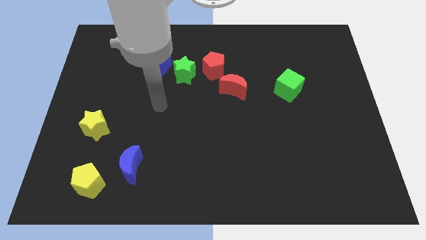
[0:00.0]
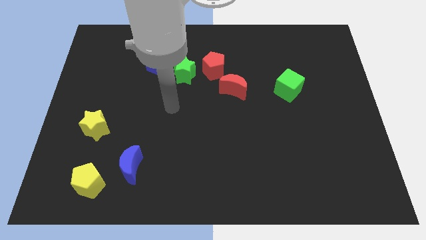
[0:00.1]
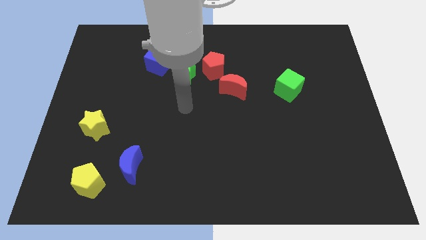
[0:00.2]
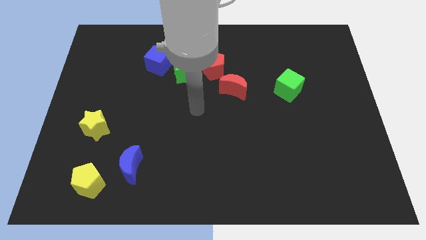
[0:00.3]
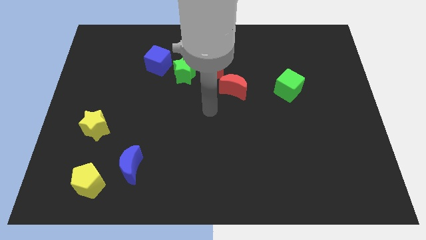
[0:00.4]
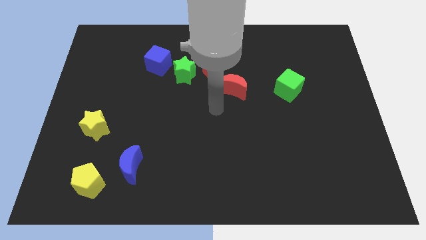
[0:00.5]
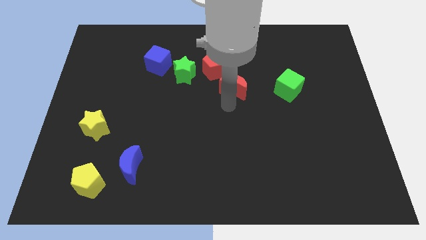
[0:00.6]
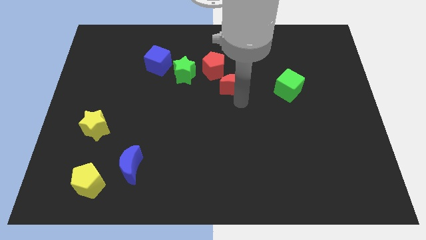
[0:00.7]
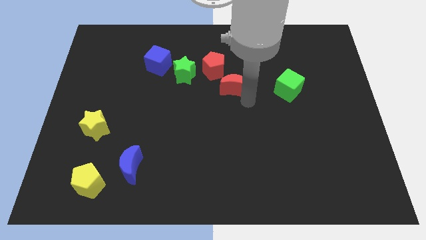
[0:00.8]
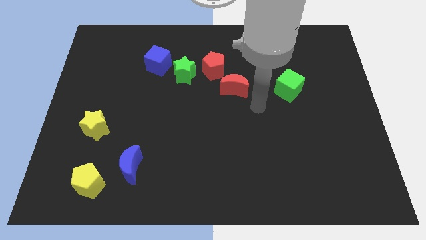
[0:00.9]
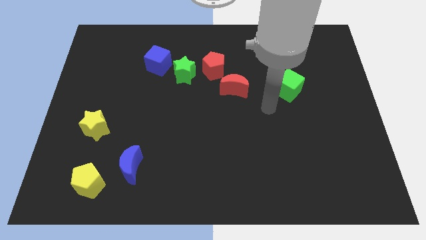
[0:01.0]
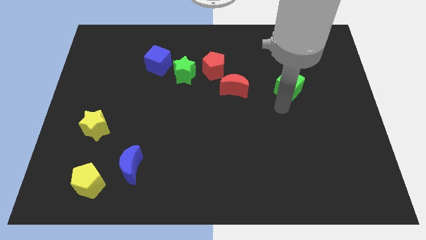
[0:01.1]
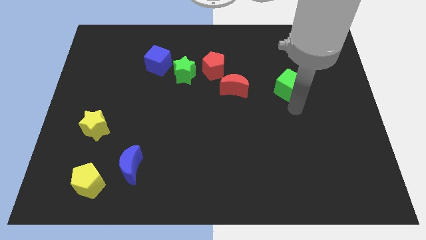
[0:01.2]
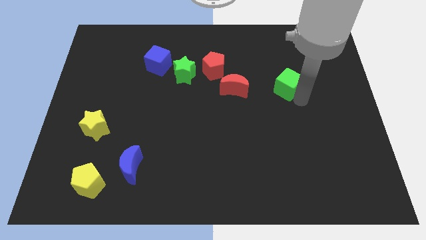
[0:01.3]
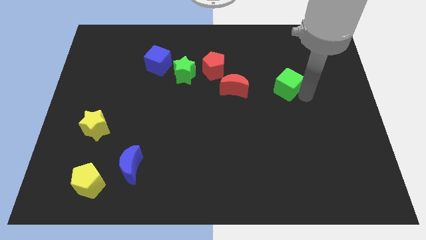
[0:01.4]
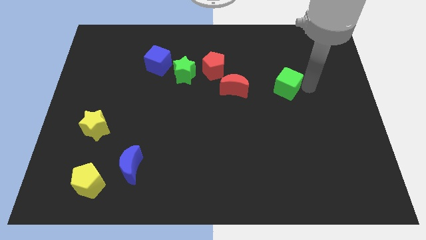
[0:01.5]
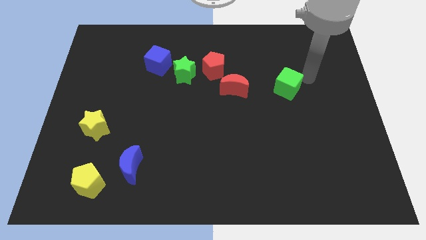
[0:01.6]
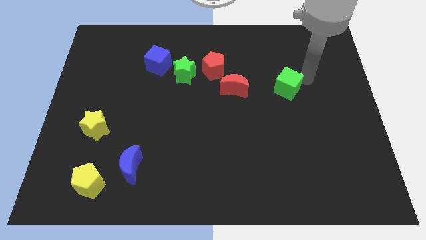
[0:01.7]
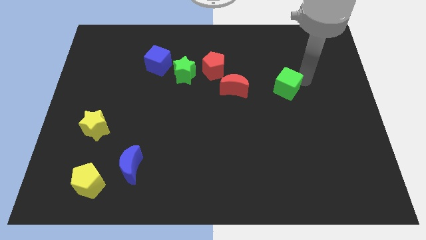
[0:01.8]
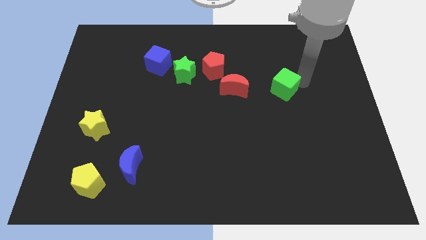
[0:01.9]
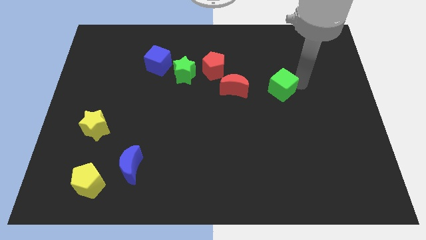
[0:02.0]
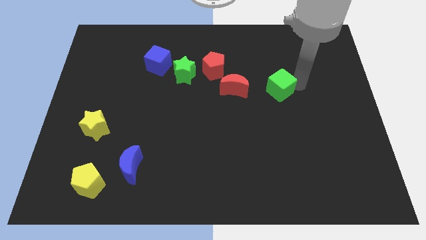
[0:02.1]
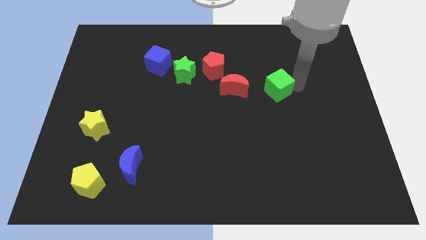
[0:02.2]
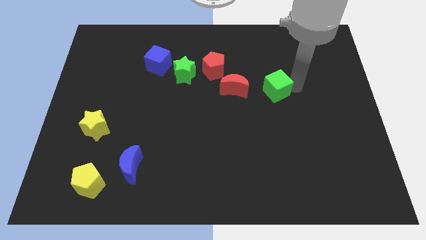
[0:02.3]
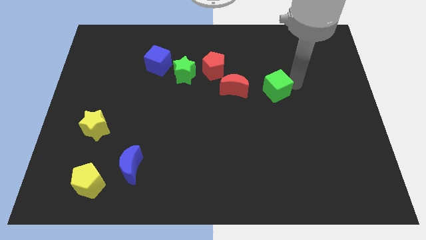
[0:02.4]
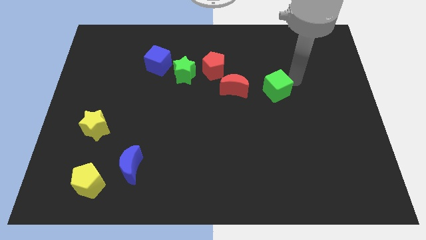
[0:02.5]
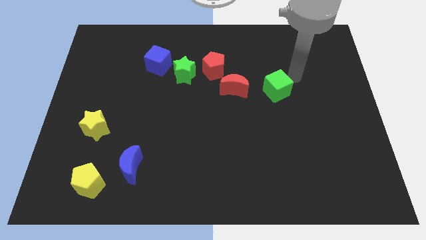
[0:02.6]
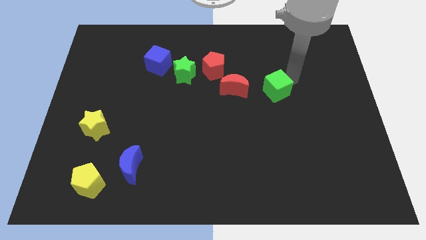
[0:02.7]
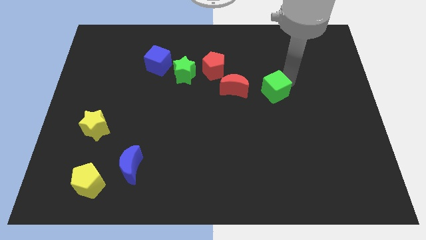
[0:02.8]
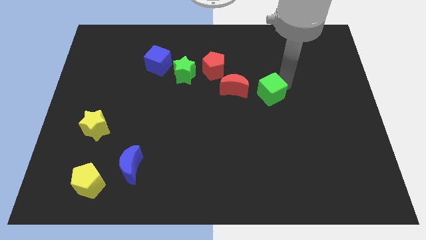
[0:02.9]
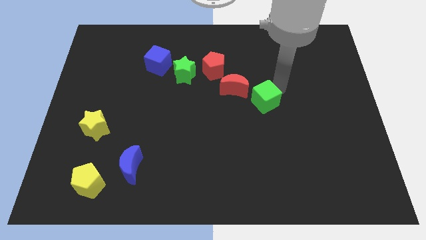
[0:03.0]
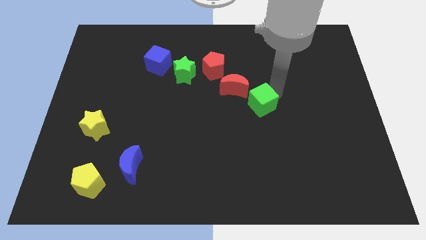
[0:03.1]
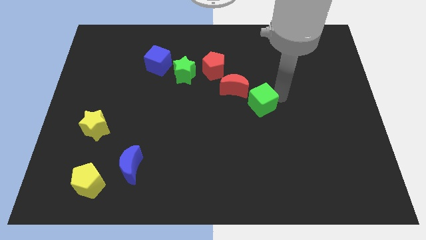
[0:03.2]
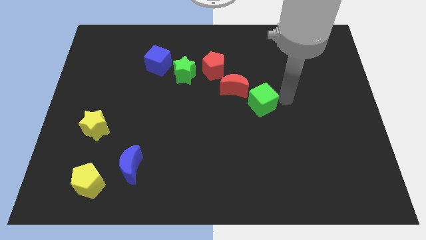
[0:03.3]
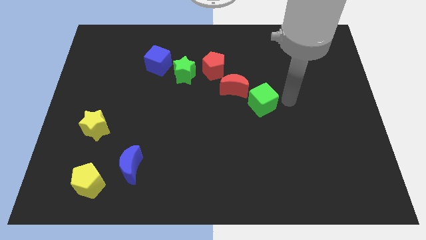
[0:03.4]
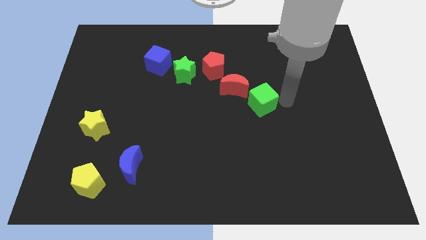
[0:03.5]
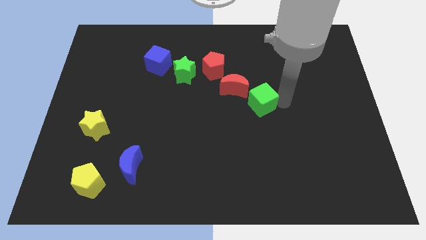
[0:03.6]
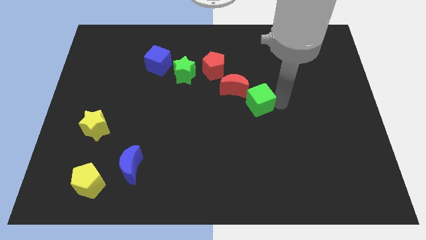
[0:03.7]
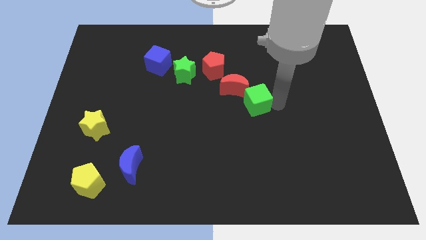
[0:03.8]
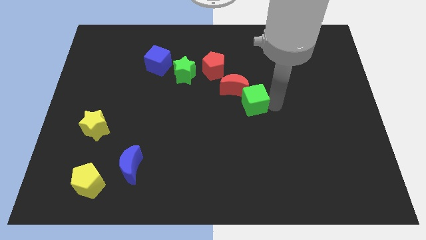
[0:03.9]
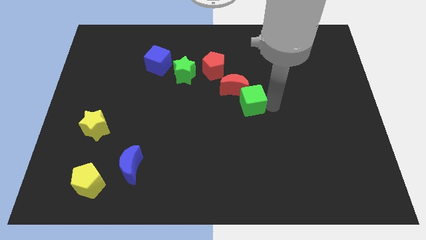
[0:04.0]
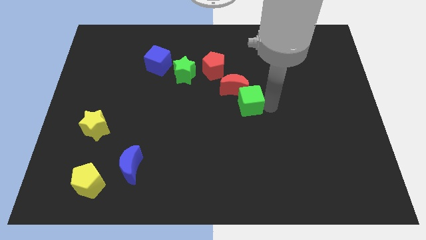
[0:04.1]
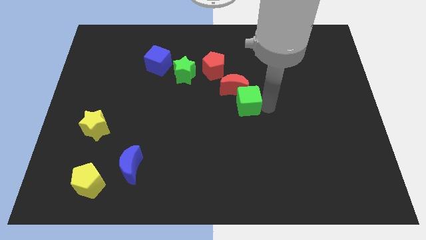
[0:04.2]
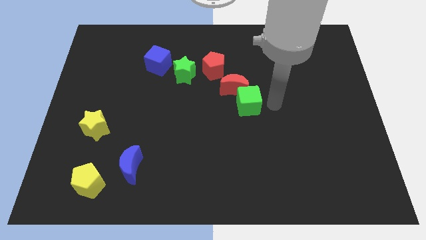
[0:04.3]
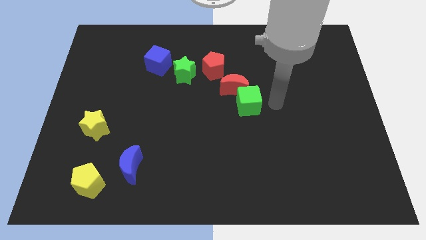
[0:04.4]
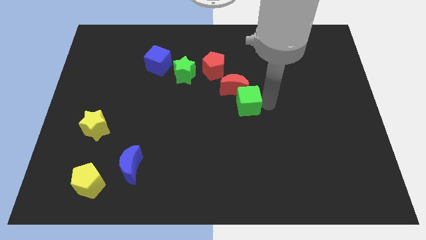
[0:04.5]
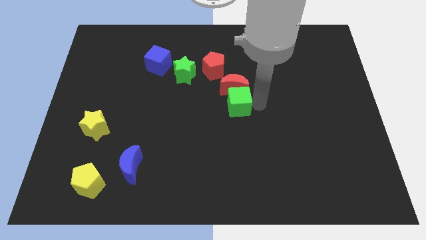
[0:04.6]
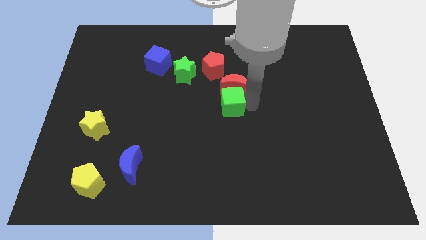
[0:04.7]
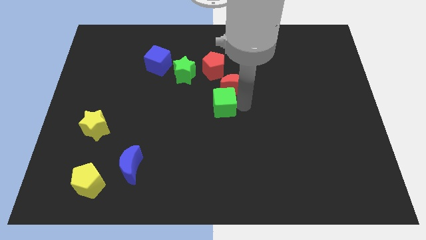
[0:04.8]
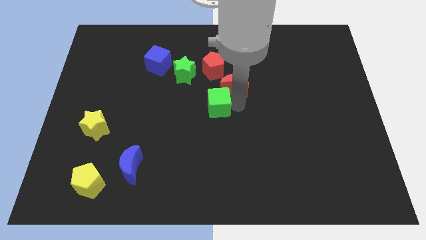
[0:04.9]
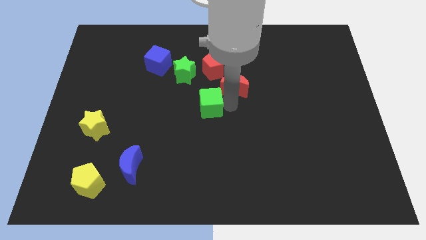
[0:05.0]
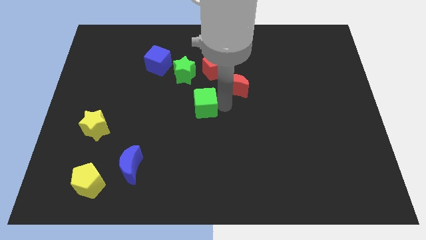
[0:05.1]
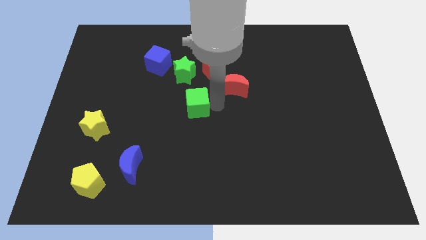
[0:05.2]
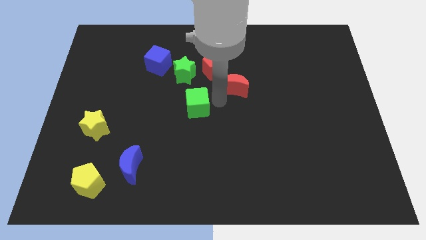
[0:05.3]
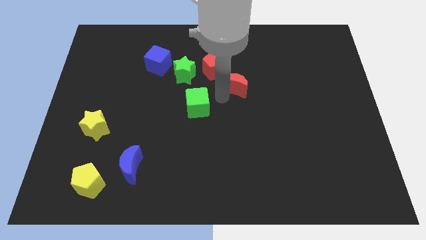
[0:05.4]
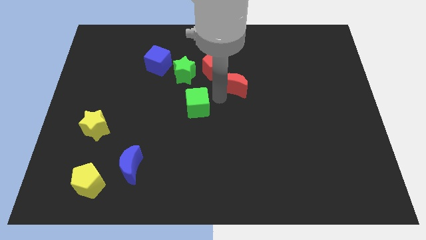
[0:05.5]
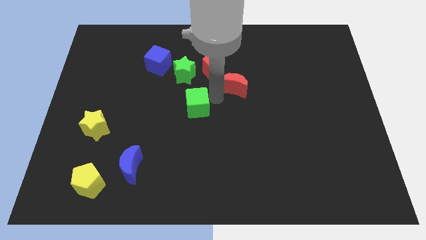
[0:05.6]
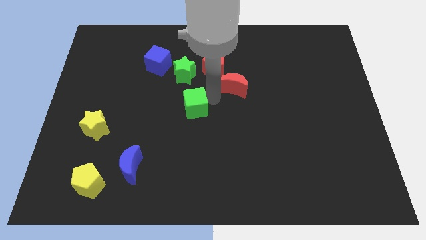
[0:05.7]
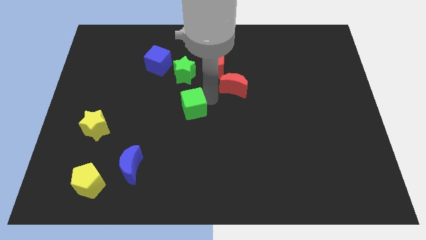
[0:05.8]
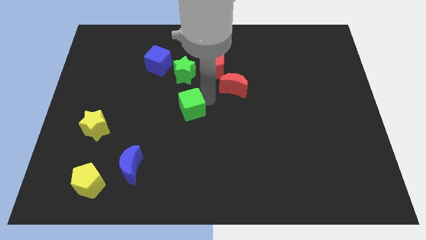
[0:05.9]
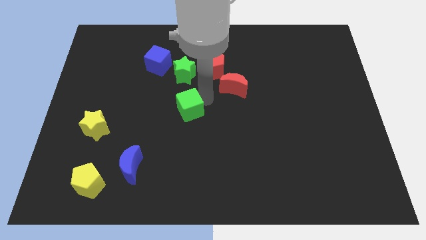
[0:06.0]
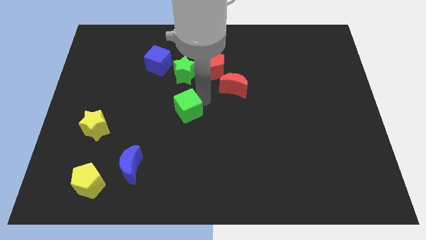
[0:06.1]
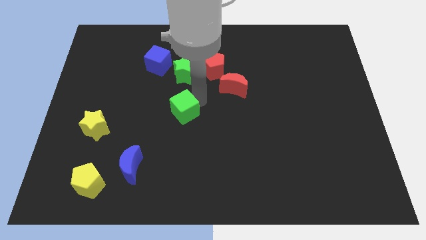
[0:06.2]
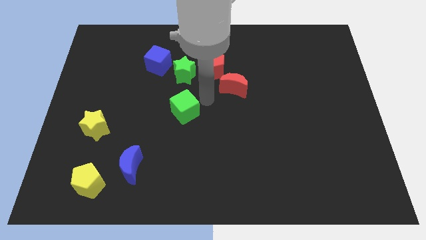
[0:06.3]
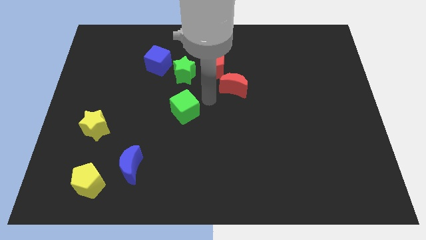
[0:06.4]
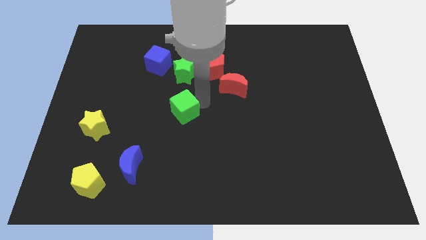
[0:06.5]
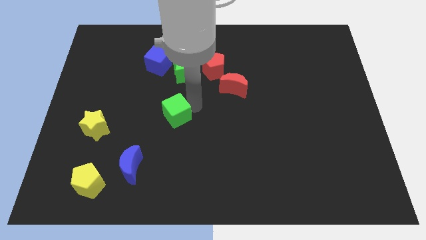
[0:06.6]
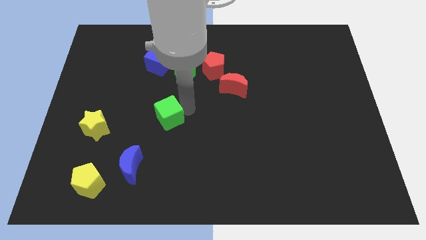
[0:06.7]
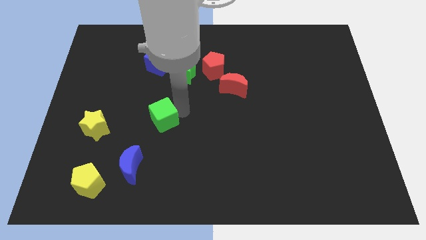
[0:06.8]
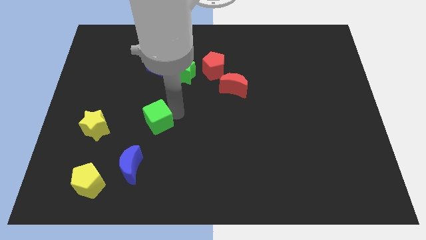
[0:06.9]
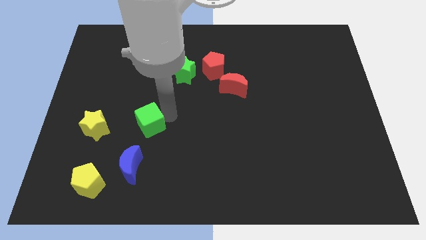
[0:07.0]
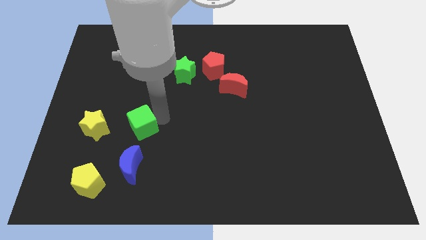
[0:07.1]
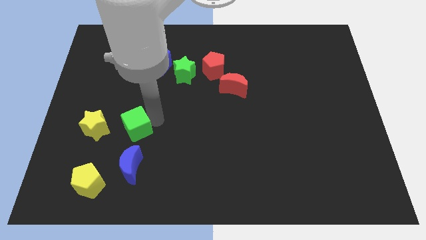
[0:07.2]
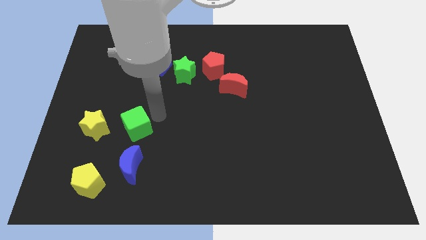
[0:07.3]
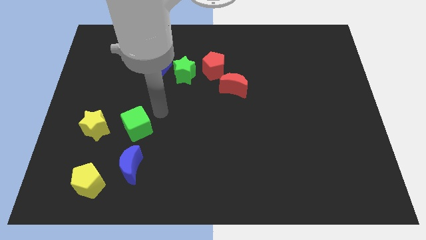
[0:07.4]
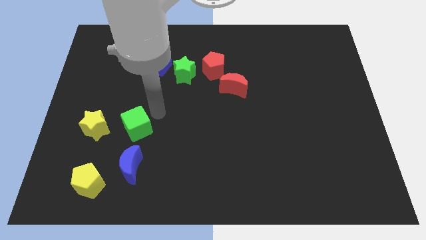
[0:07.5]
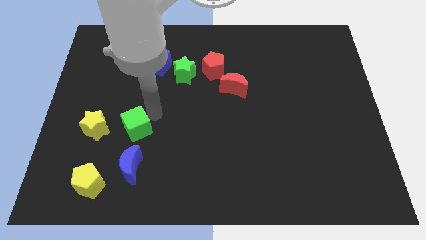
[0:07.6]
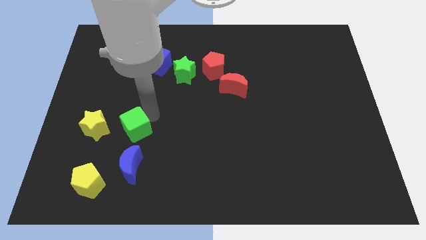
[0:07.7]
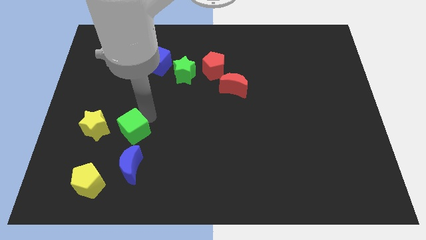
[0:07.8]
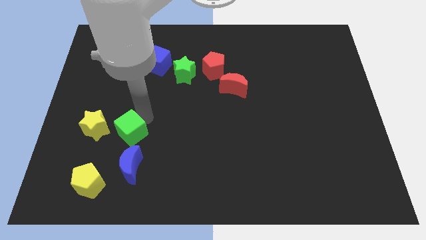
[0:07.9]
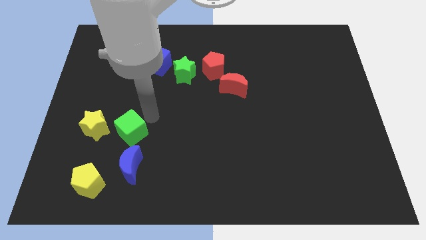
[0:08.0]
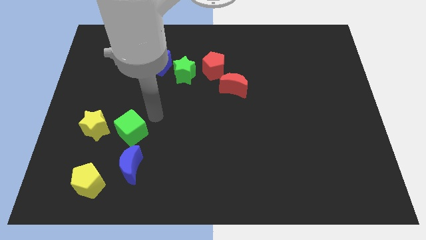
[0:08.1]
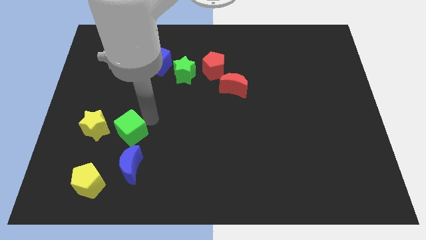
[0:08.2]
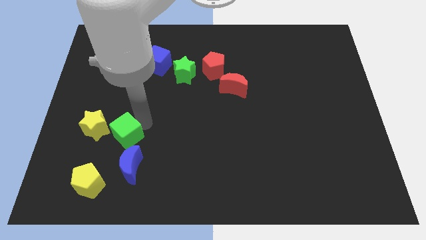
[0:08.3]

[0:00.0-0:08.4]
slide the green cube to the top left side of the blue moon

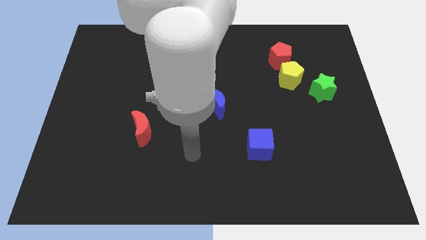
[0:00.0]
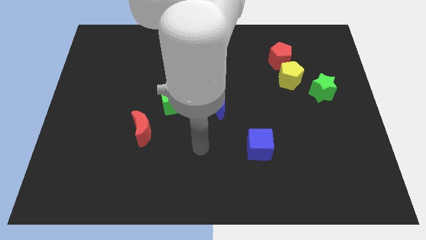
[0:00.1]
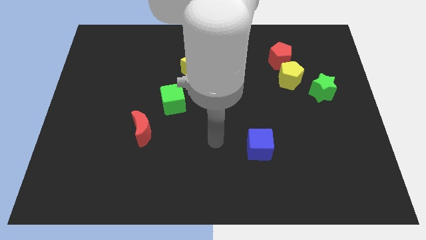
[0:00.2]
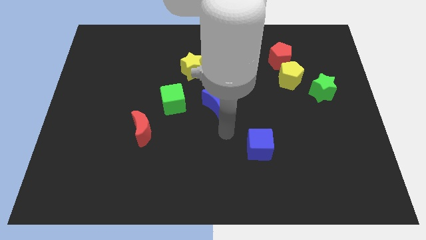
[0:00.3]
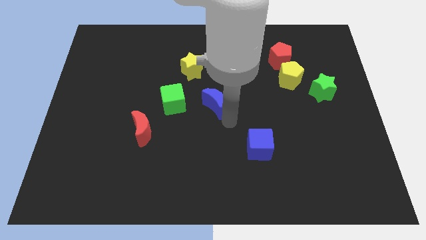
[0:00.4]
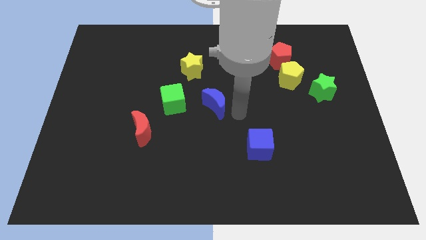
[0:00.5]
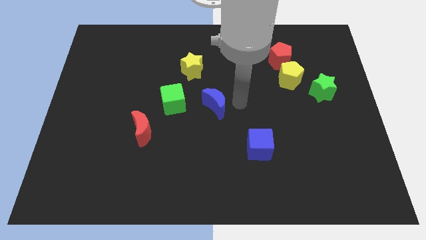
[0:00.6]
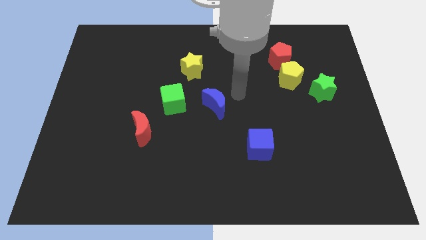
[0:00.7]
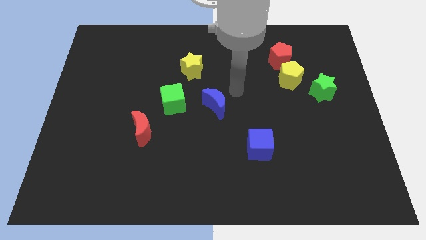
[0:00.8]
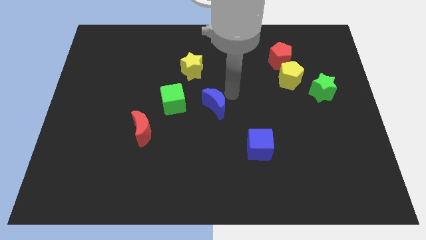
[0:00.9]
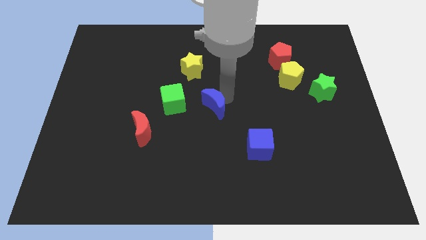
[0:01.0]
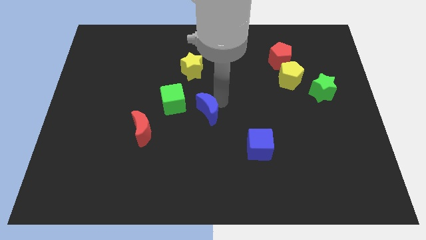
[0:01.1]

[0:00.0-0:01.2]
move the blue moon diagonally down and to the right of the green cube
